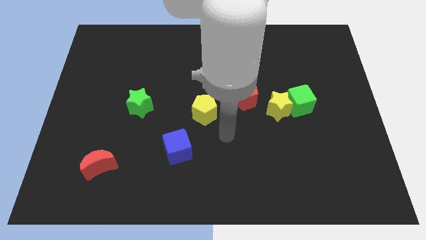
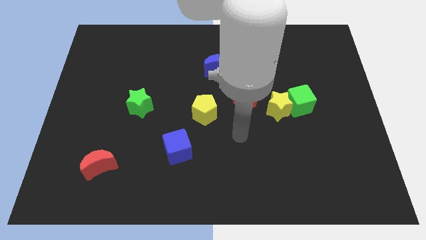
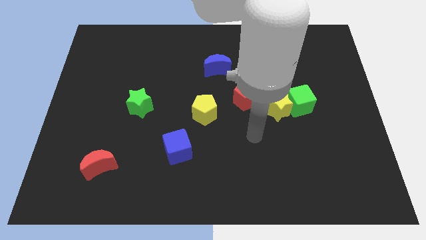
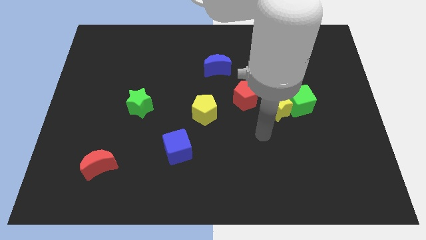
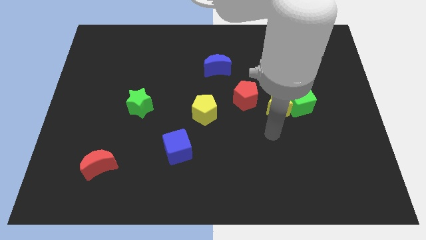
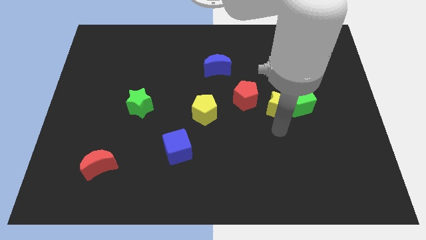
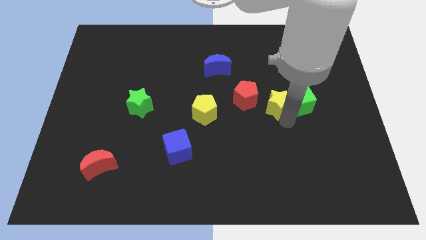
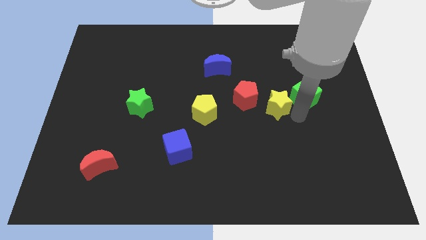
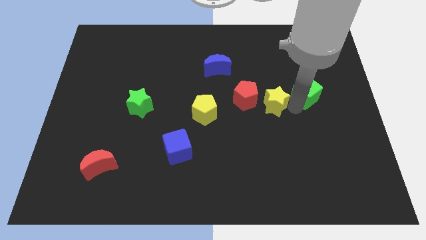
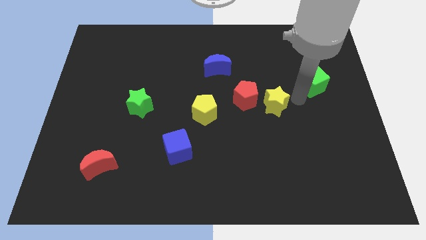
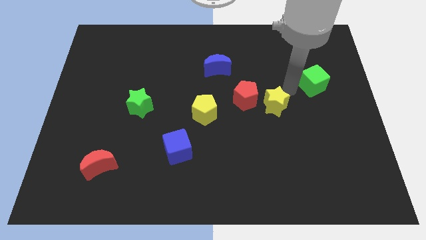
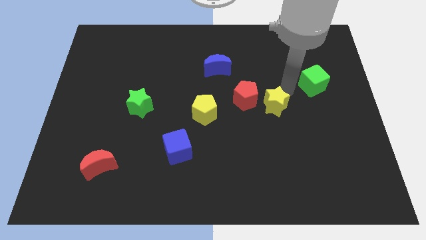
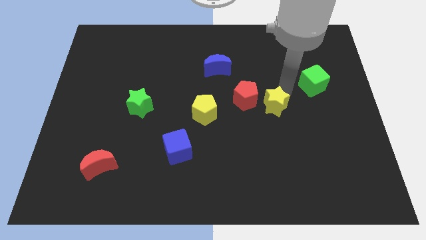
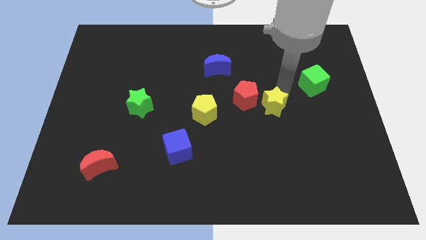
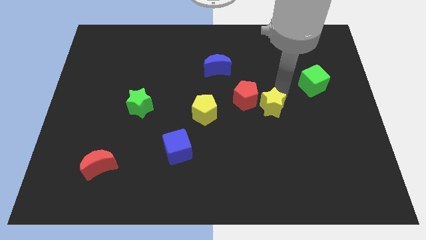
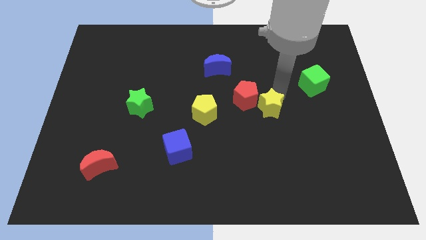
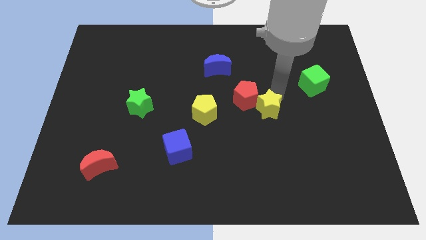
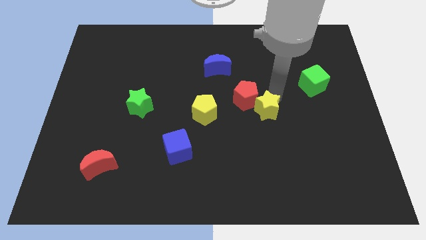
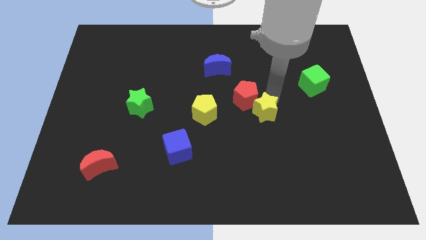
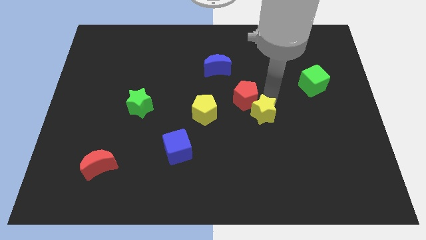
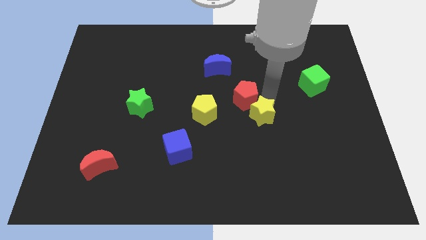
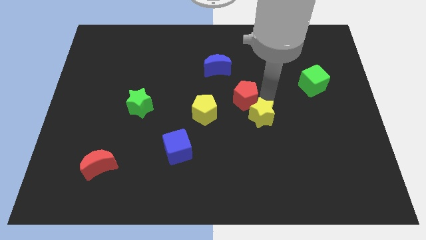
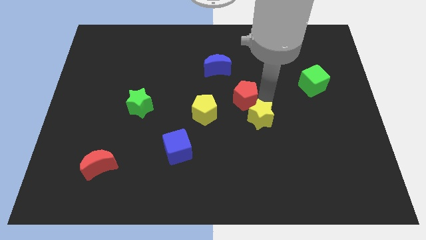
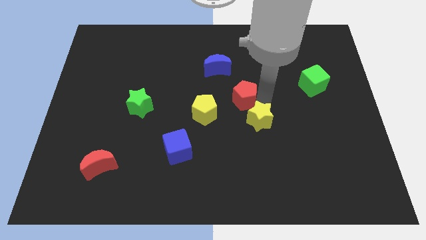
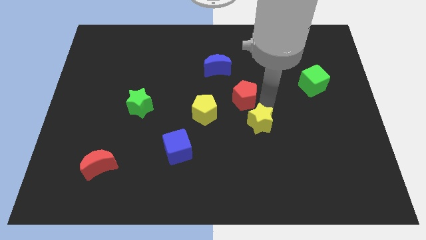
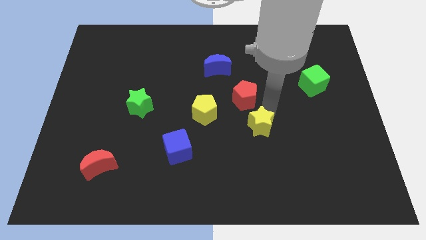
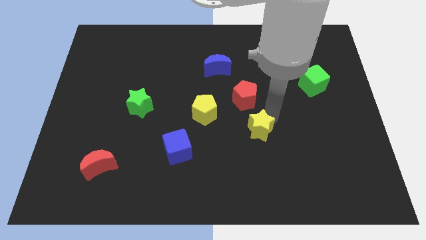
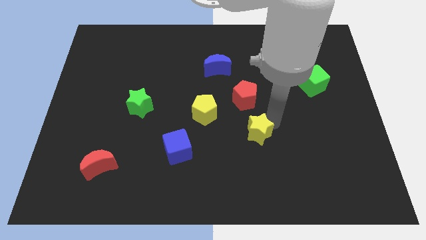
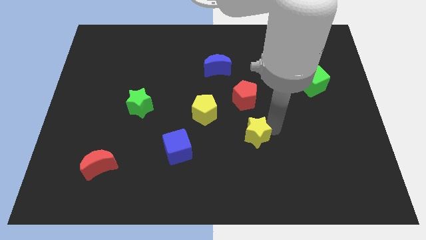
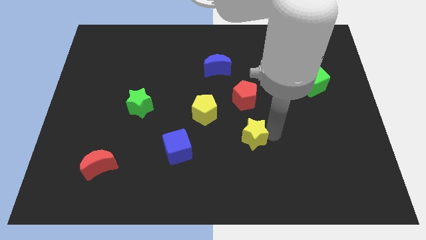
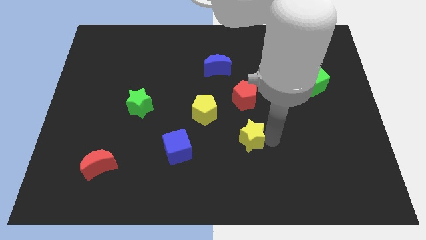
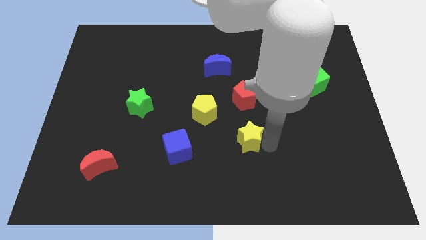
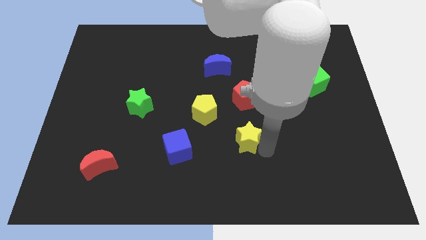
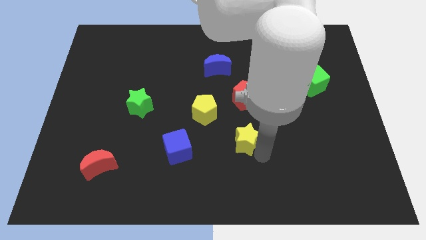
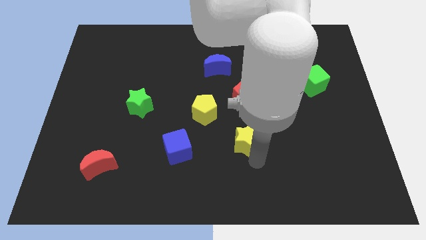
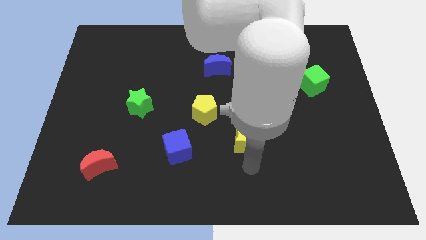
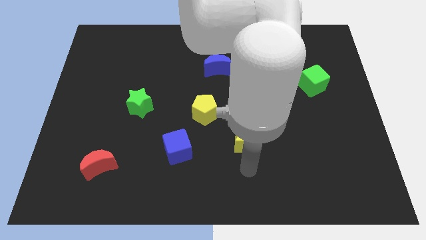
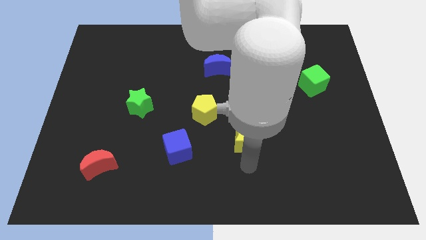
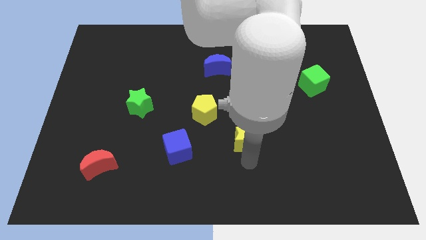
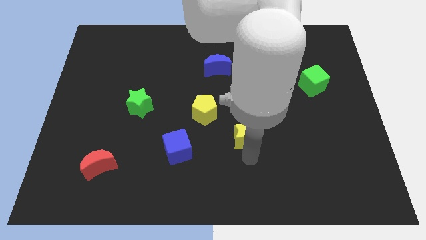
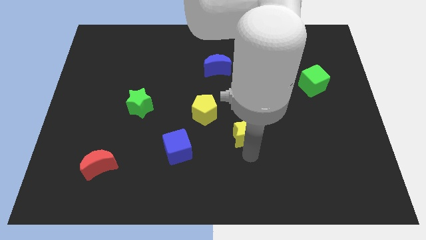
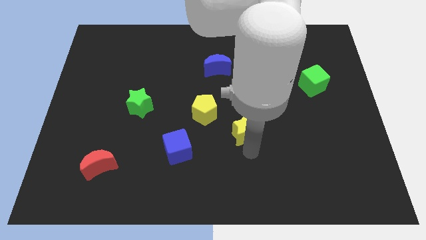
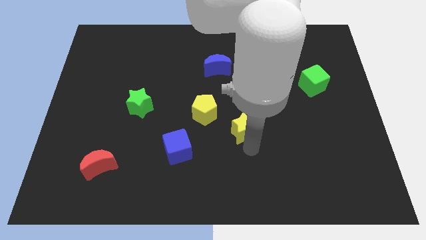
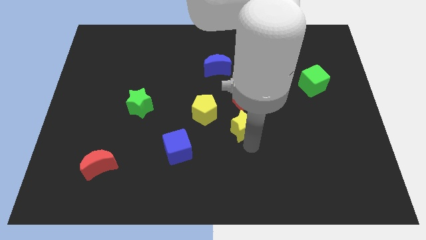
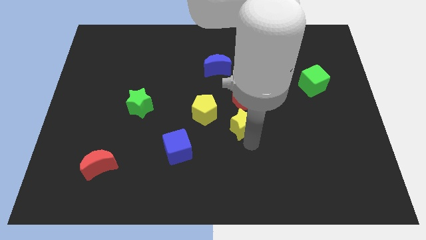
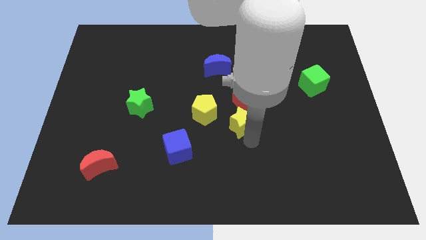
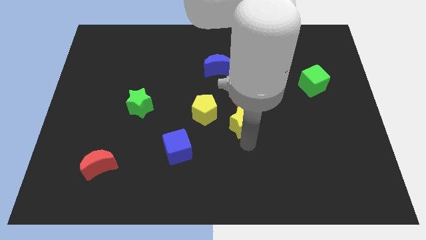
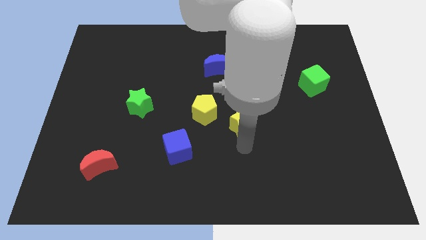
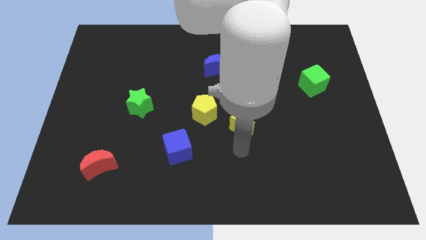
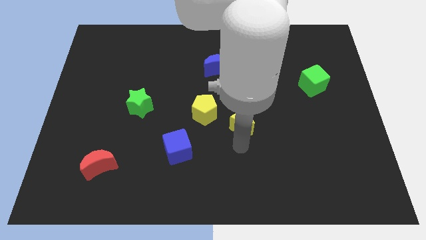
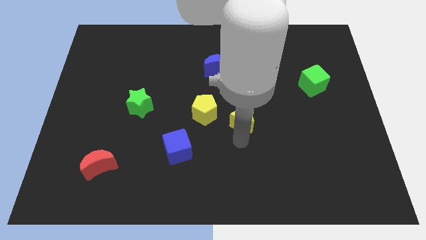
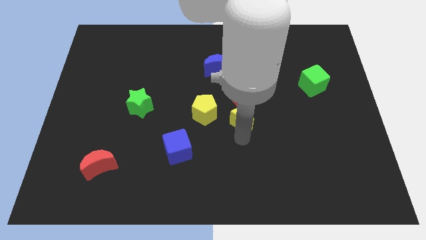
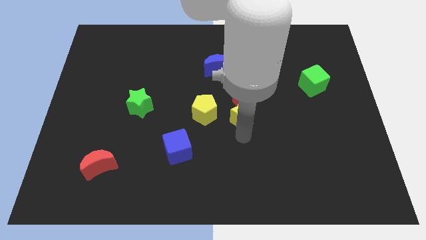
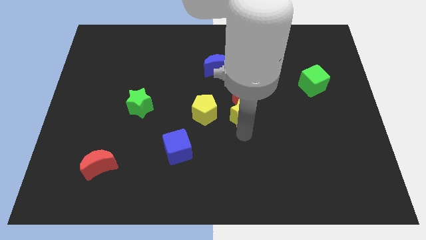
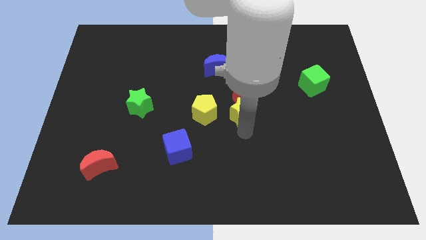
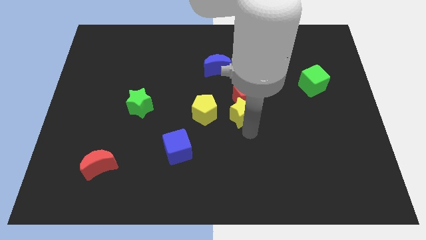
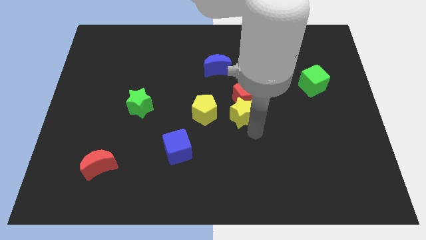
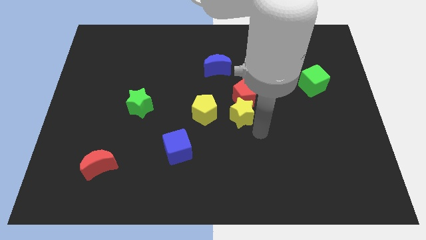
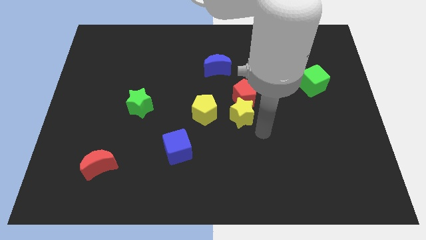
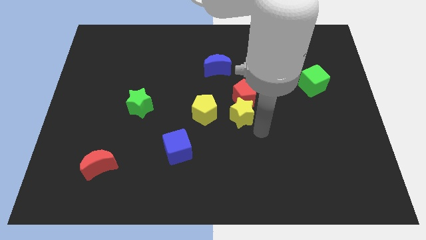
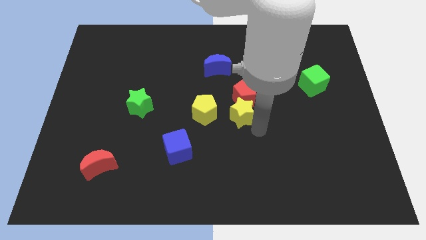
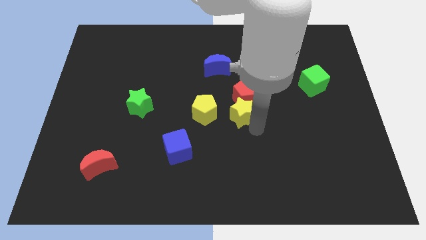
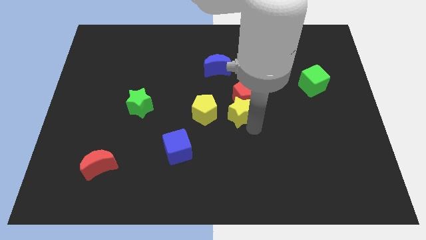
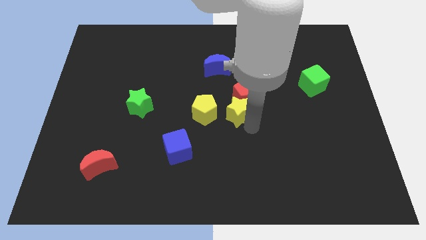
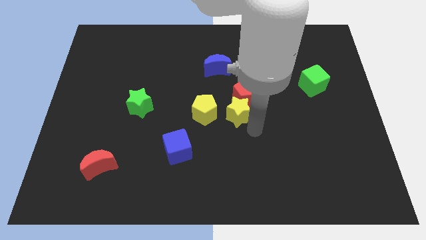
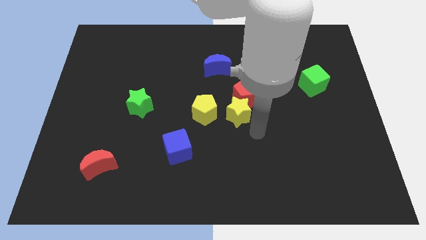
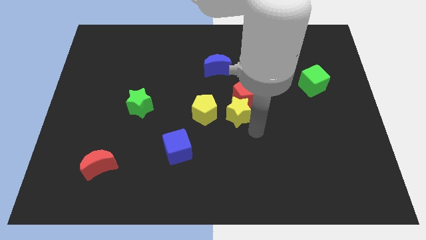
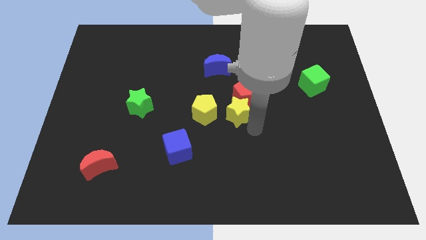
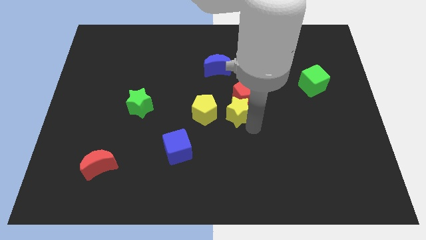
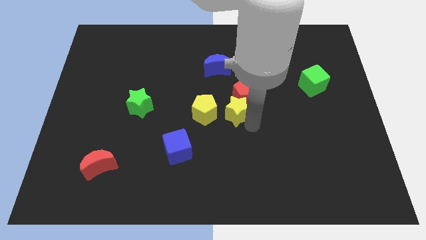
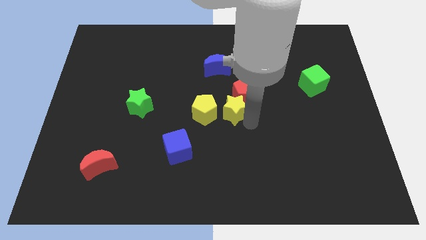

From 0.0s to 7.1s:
push the yellow star diagonally up and to the right of the yellow pentagon
